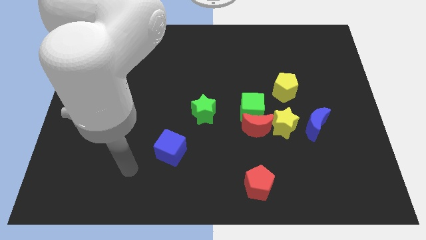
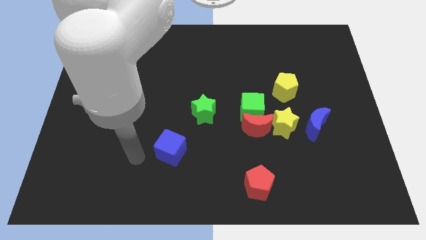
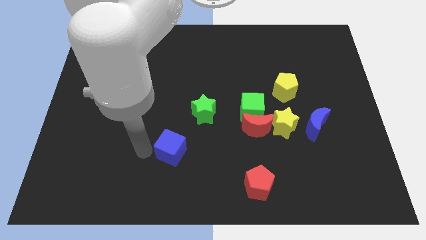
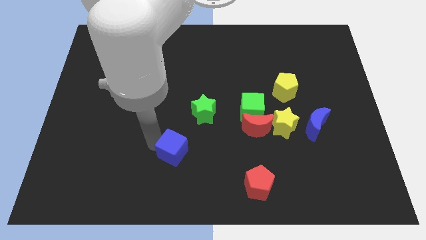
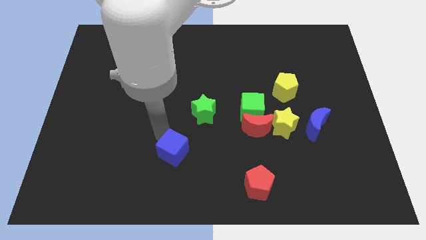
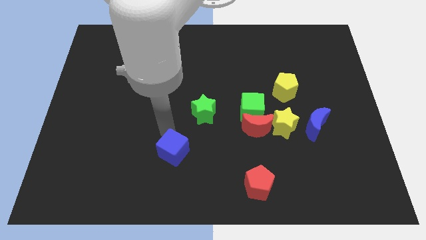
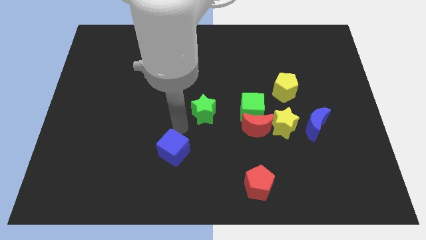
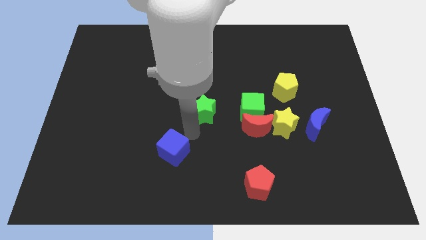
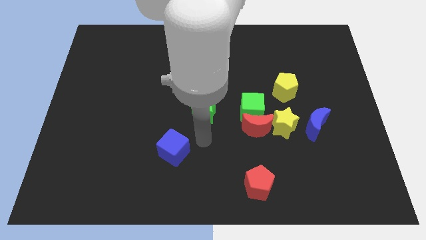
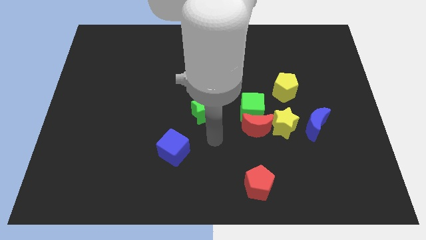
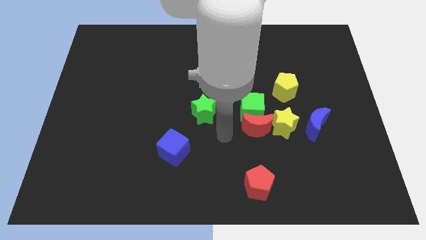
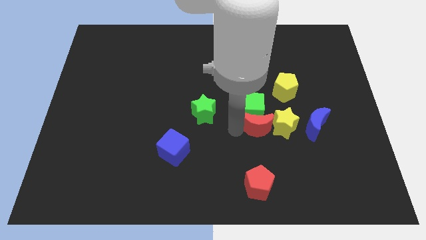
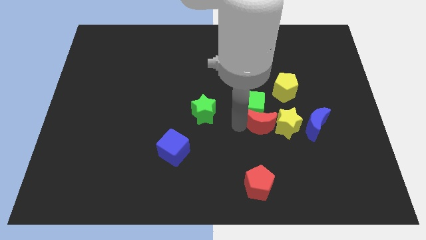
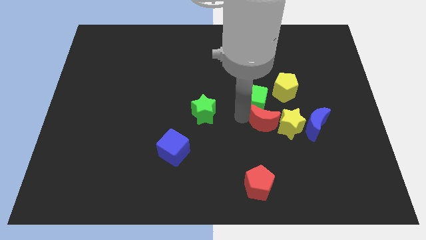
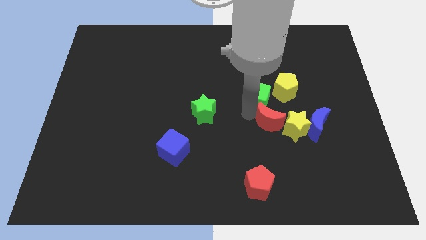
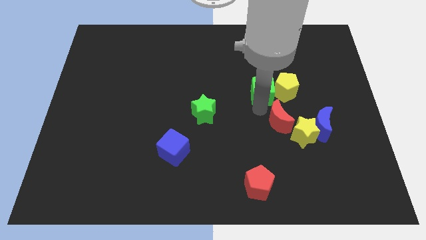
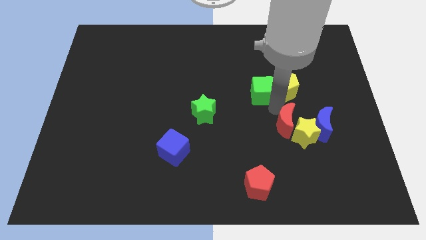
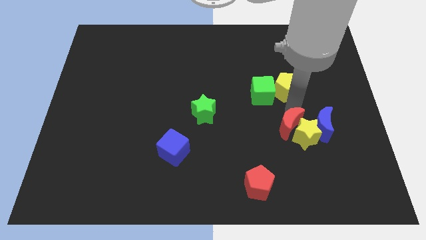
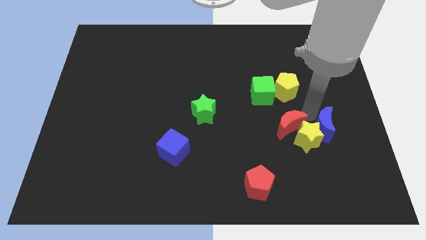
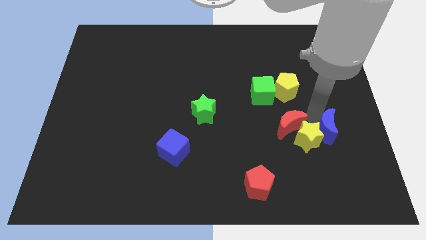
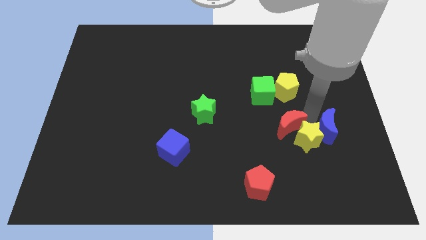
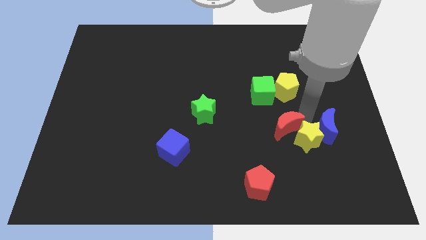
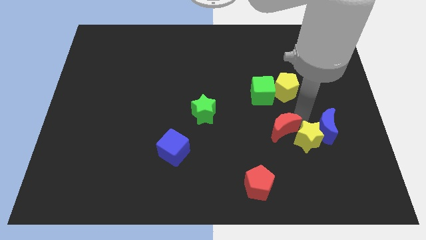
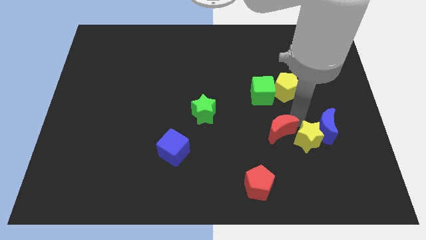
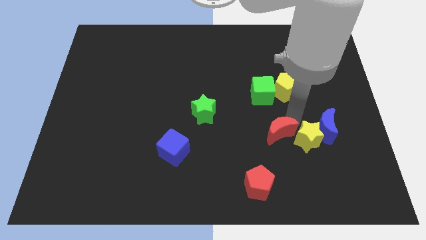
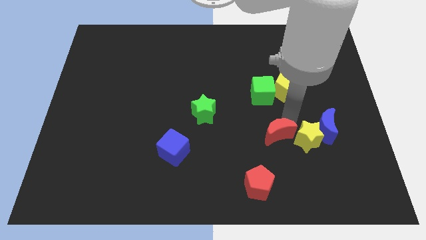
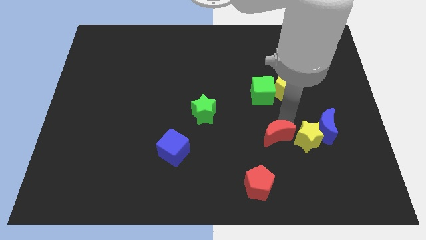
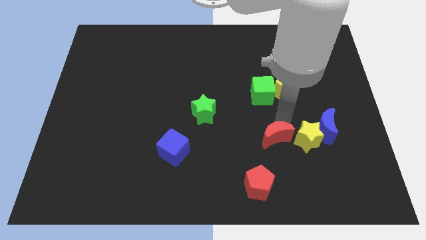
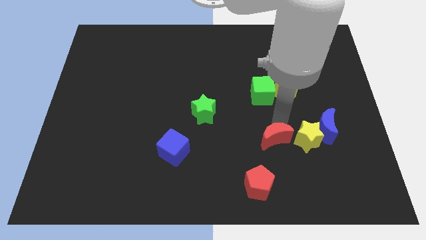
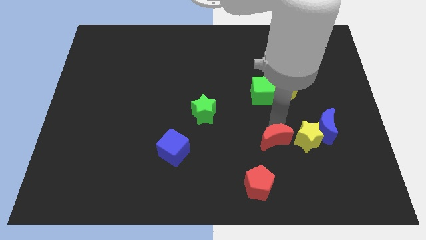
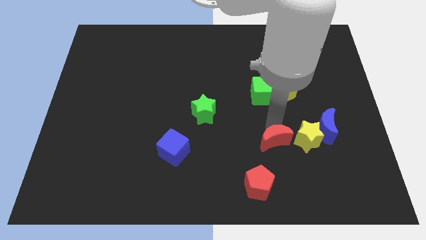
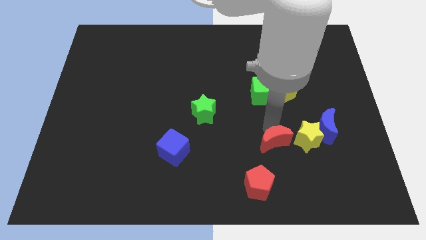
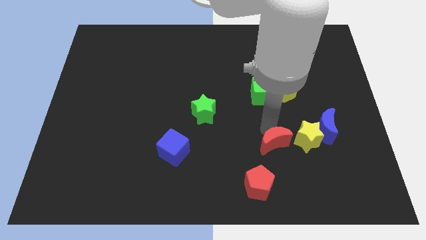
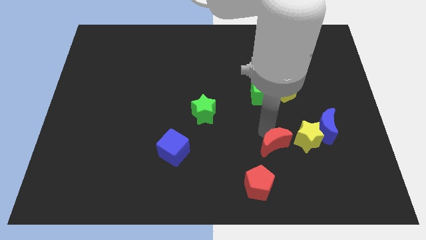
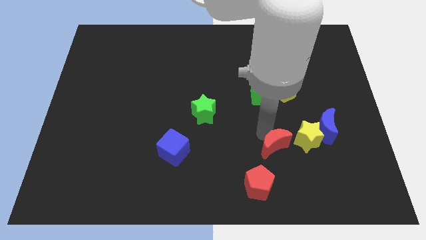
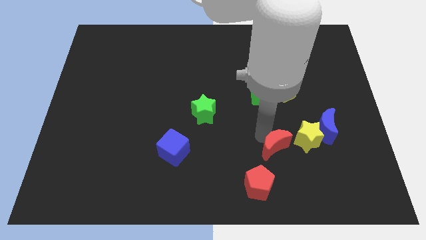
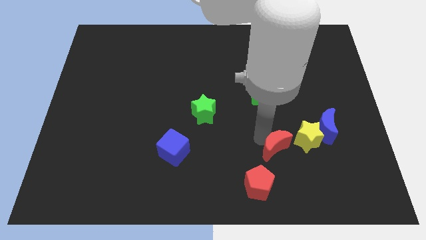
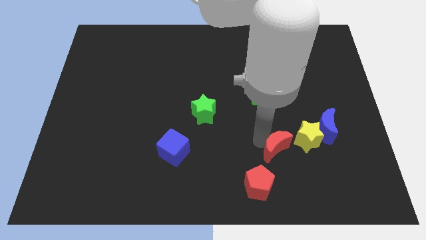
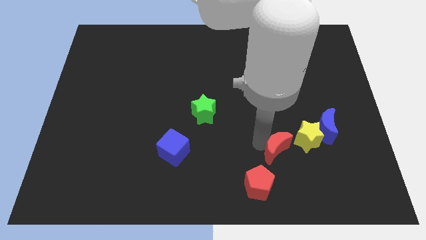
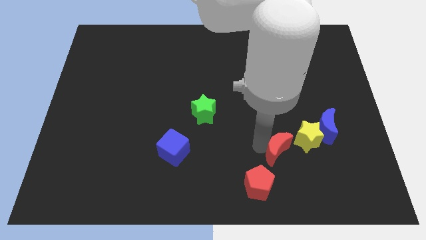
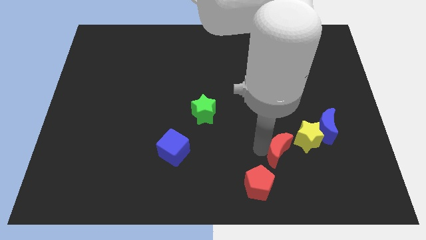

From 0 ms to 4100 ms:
pull the red moon apart from the green cube and yellow star

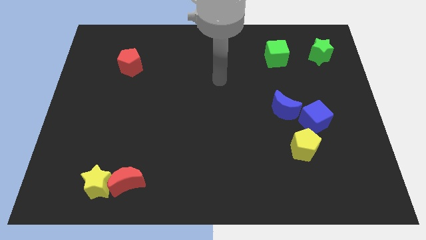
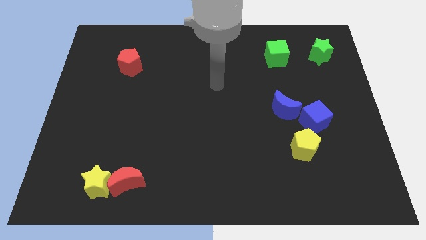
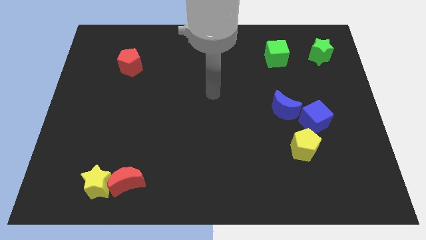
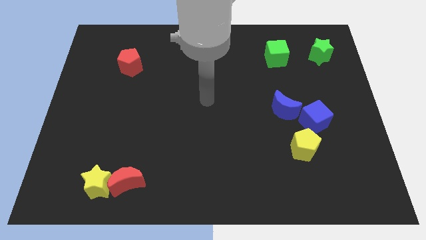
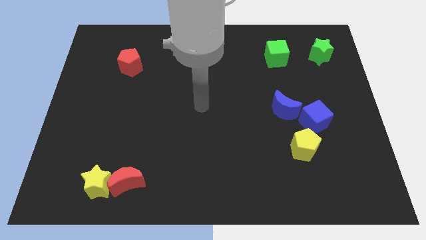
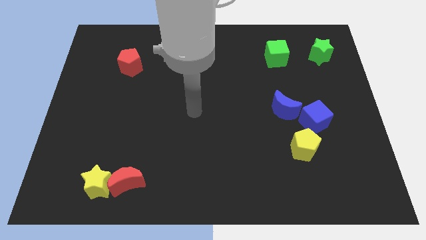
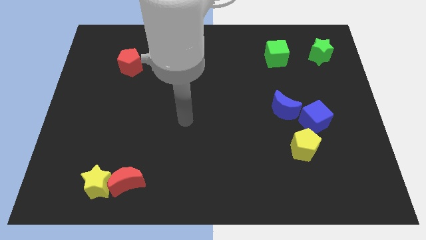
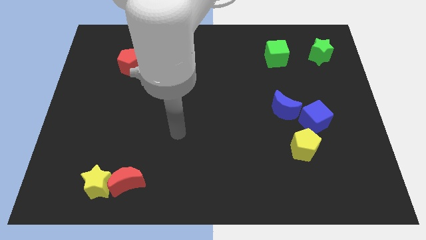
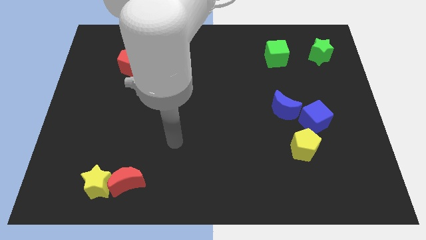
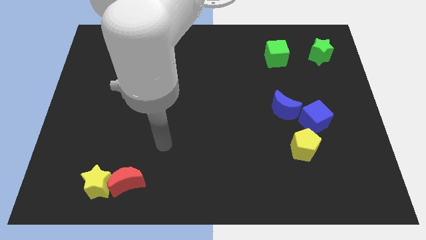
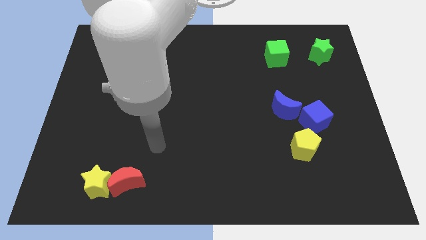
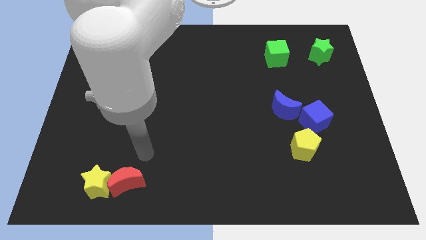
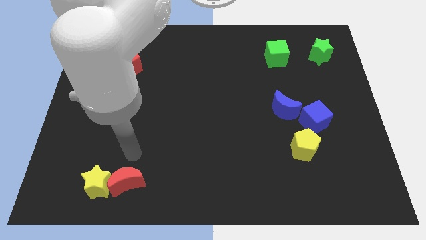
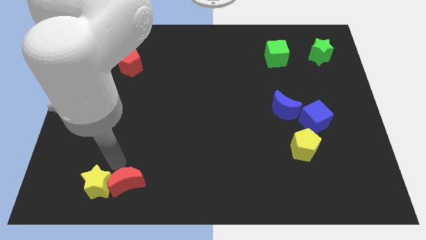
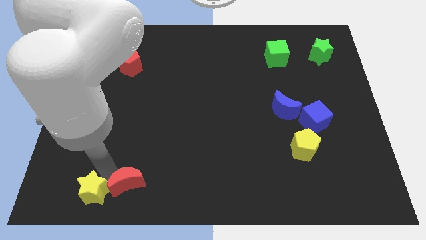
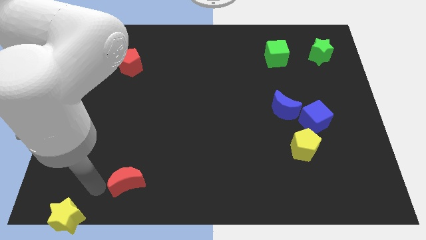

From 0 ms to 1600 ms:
pull the red moon apart from the yellow star

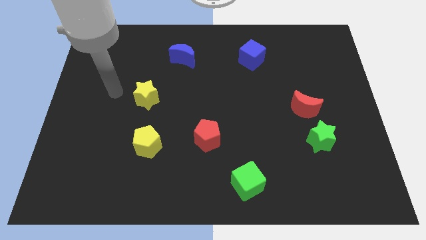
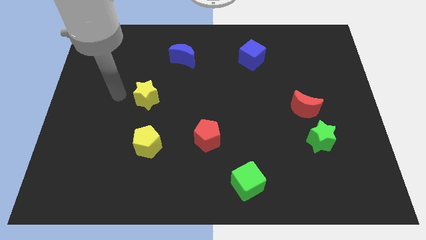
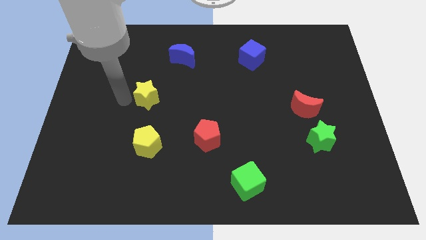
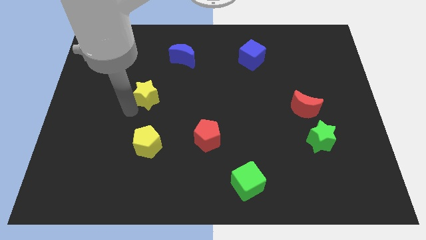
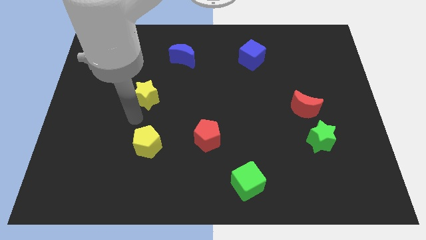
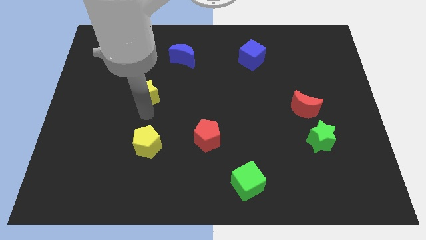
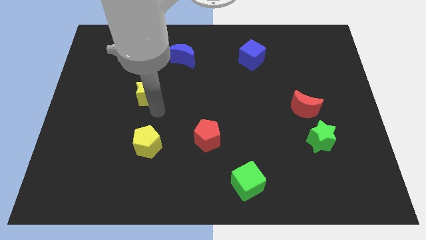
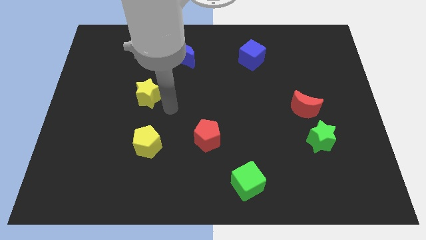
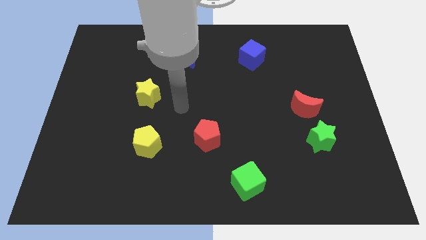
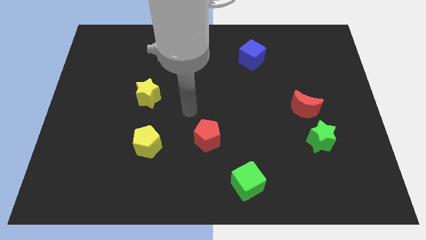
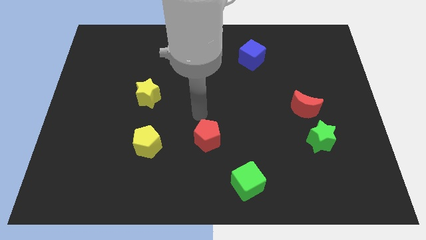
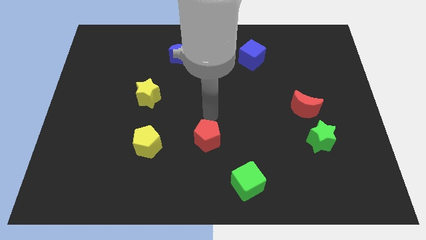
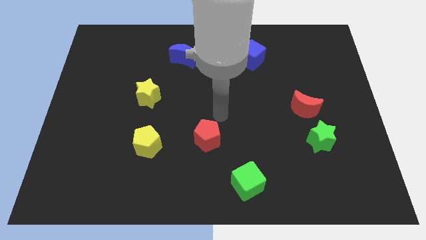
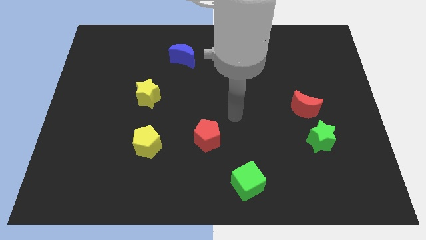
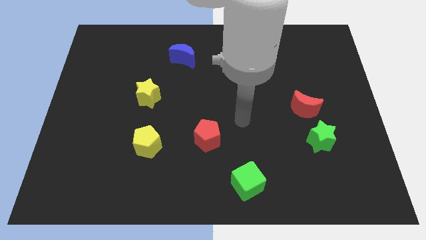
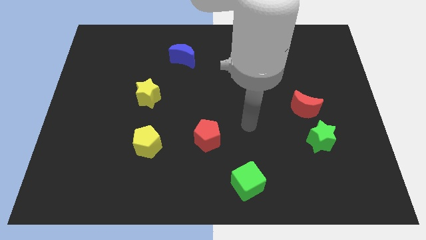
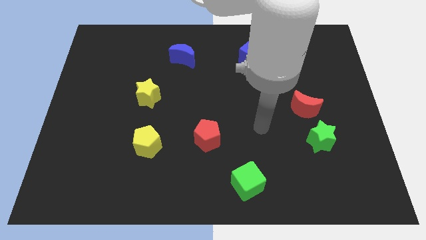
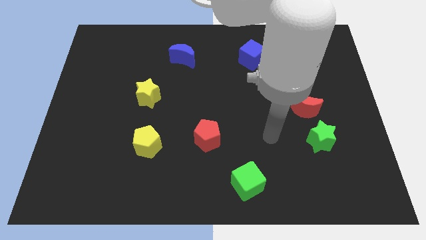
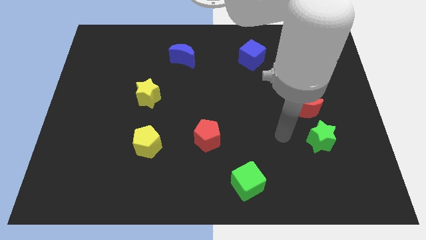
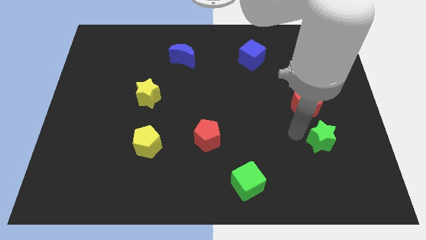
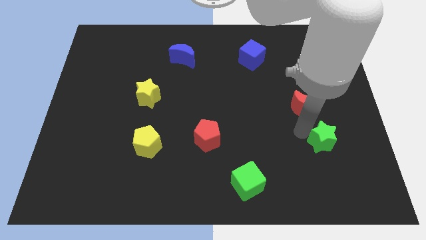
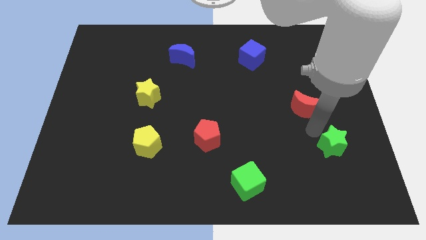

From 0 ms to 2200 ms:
pull the red moon apart from the green star

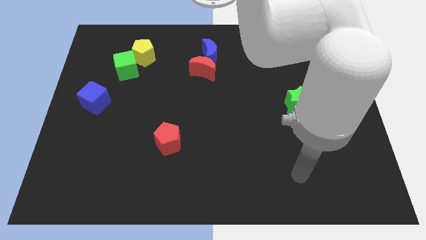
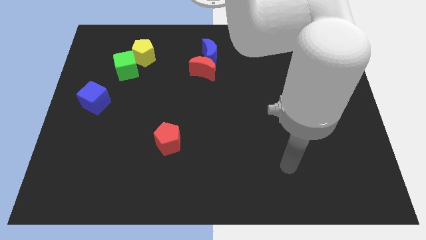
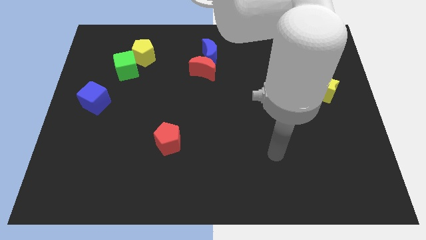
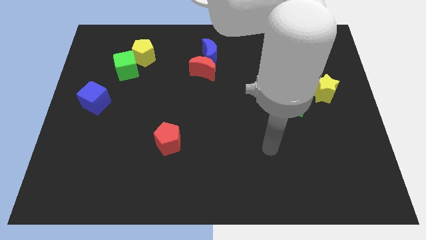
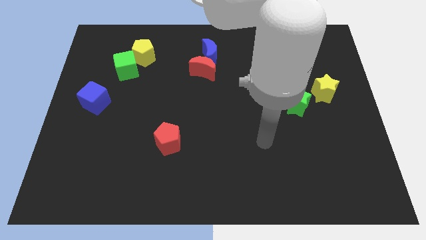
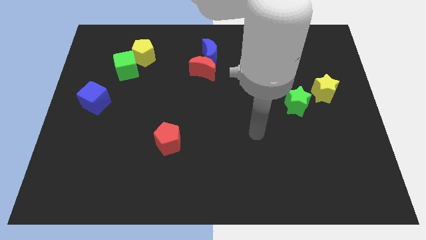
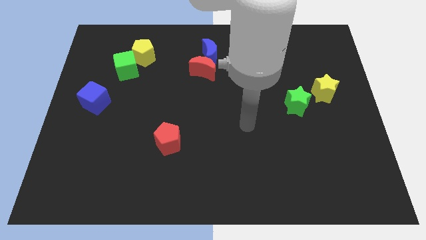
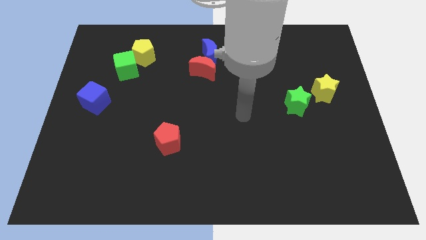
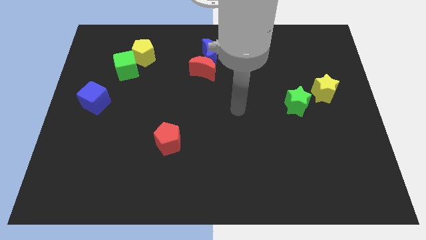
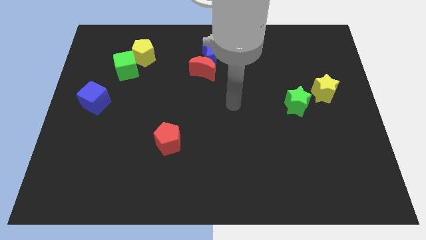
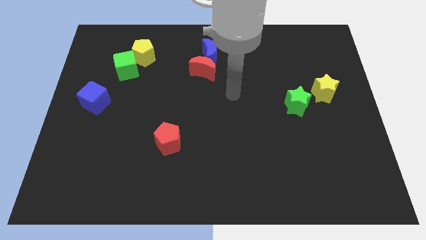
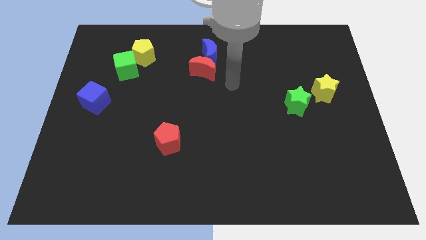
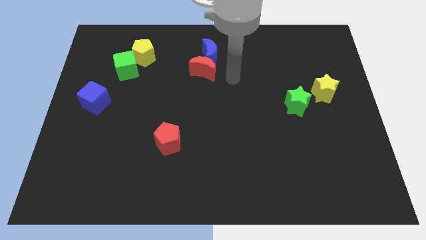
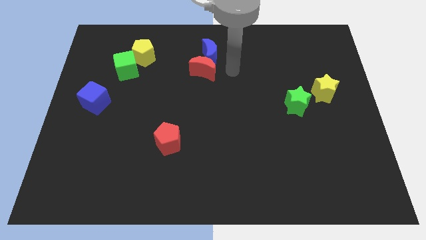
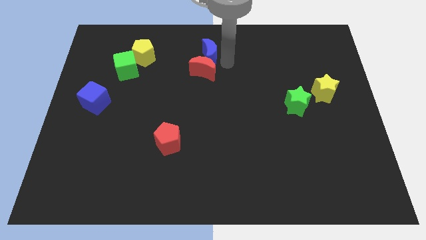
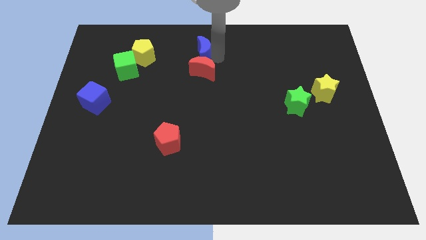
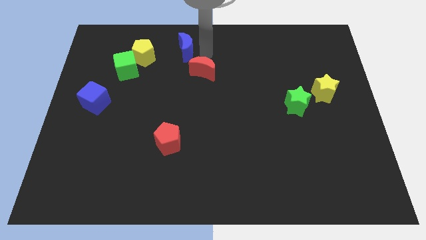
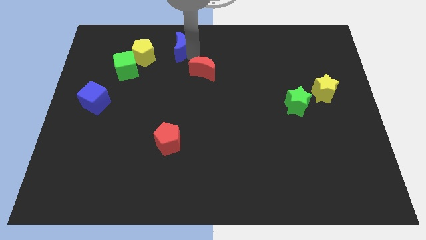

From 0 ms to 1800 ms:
separate the red moon from the blue moon
